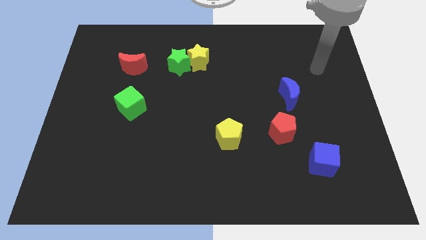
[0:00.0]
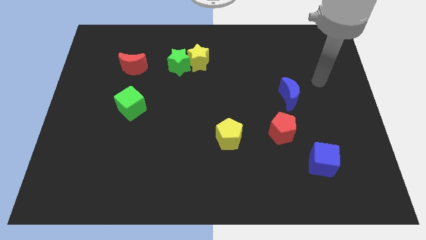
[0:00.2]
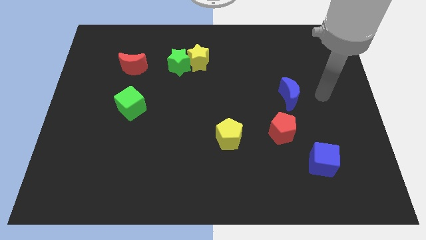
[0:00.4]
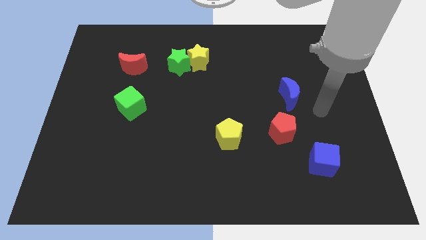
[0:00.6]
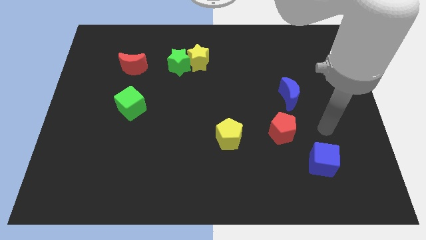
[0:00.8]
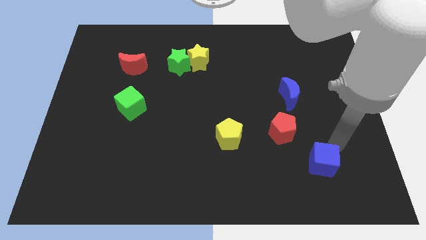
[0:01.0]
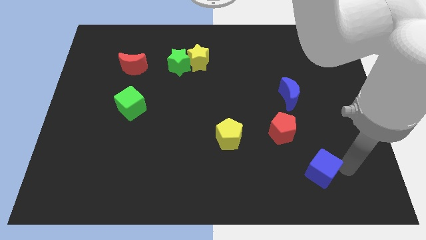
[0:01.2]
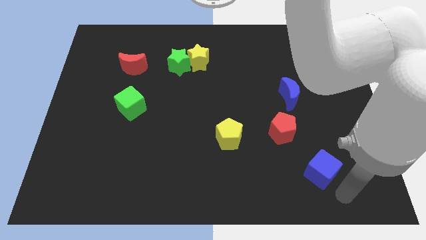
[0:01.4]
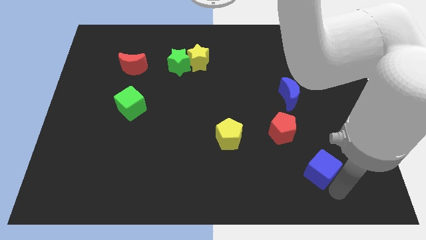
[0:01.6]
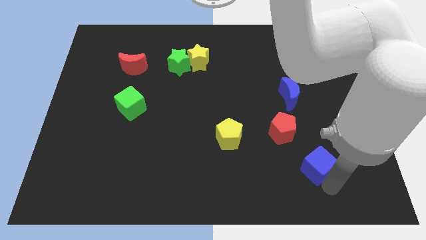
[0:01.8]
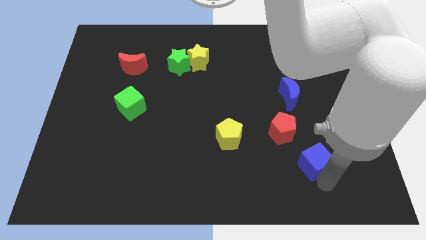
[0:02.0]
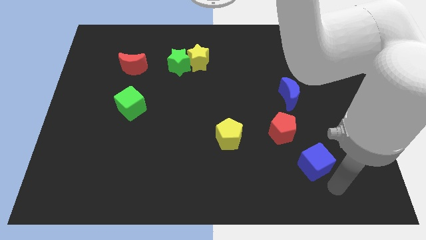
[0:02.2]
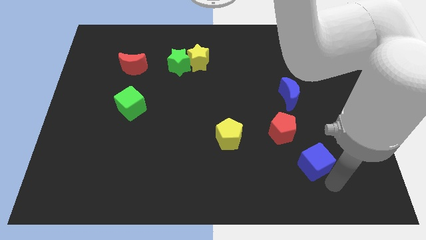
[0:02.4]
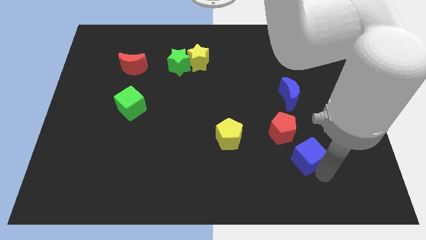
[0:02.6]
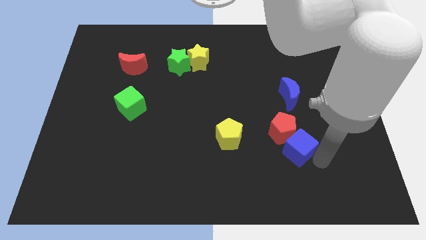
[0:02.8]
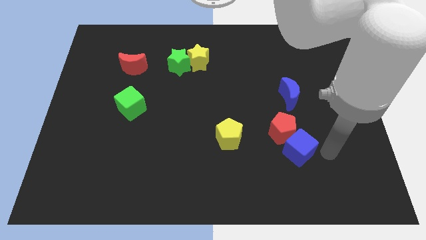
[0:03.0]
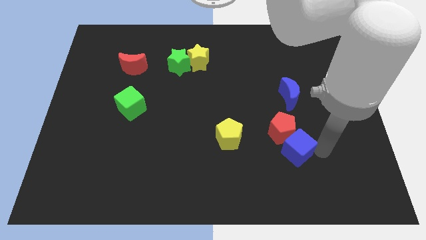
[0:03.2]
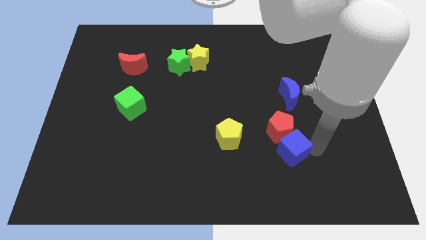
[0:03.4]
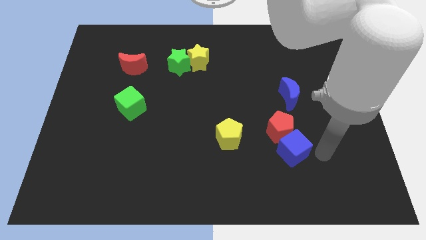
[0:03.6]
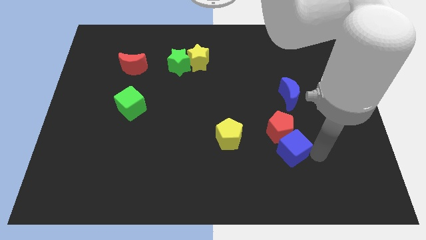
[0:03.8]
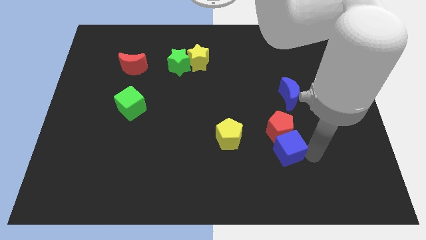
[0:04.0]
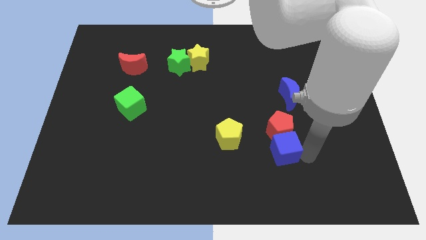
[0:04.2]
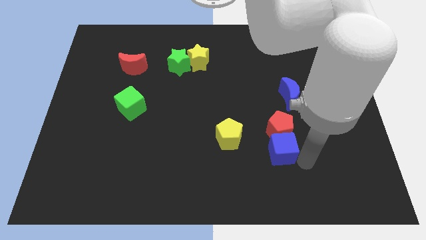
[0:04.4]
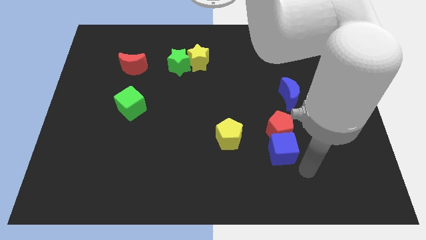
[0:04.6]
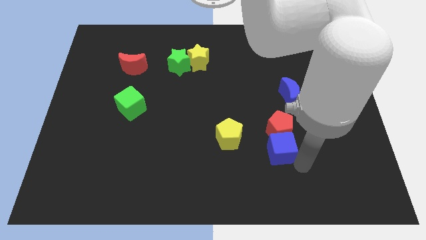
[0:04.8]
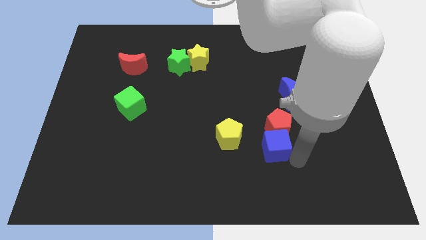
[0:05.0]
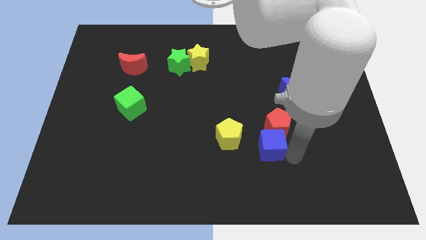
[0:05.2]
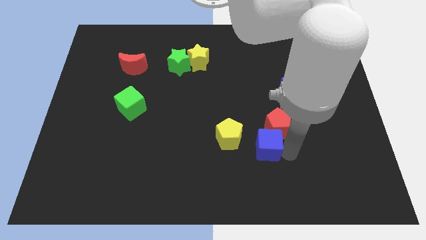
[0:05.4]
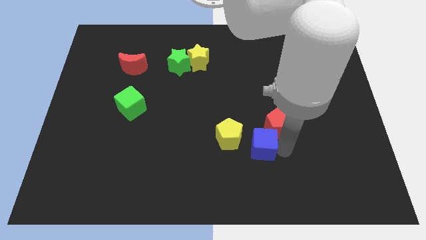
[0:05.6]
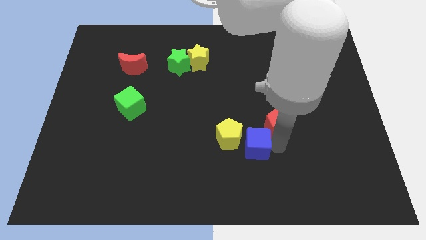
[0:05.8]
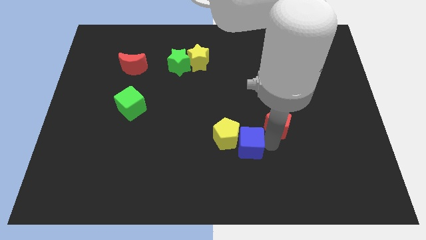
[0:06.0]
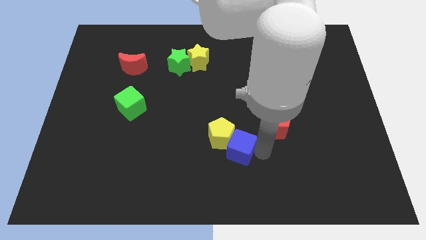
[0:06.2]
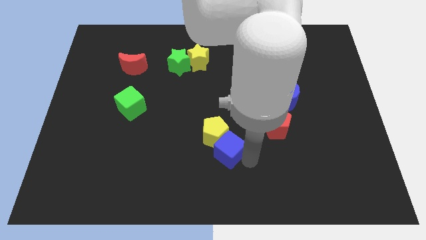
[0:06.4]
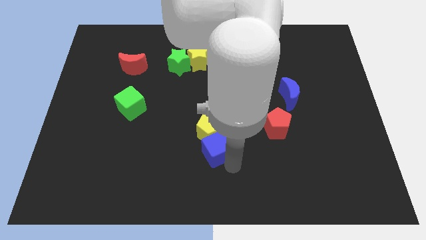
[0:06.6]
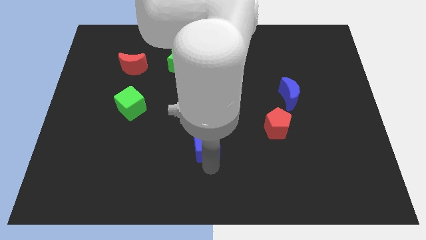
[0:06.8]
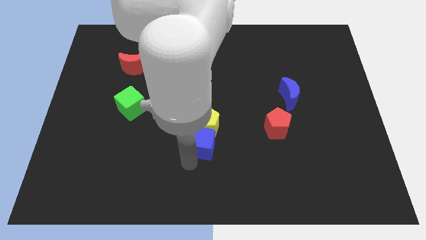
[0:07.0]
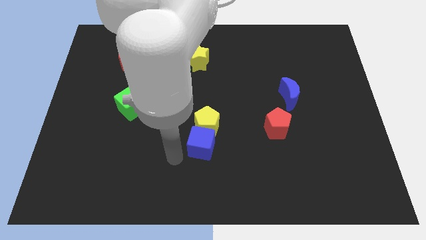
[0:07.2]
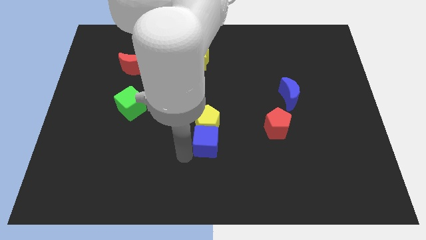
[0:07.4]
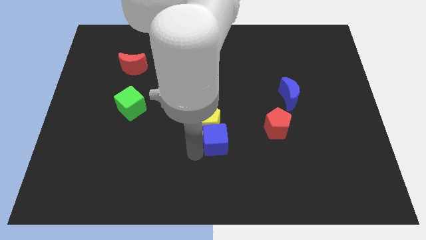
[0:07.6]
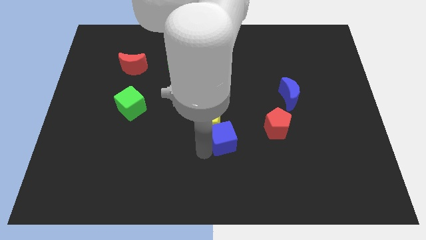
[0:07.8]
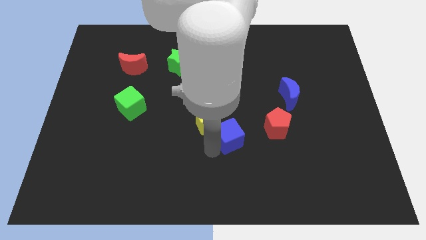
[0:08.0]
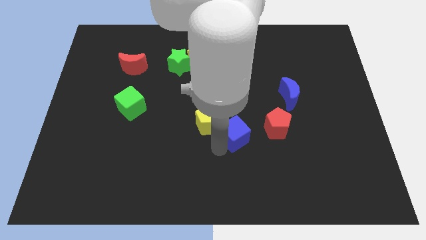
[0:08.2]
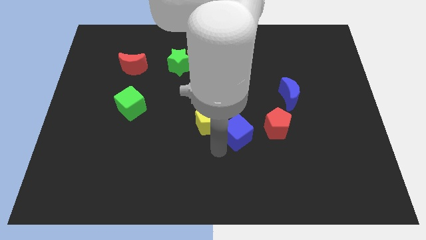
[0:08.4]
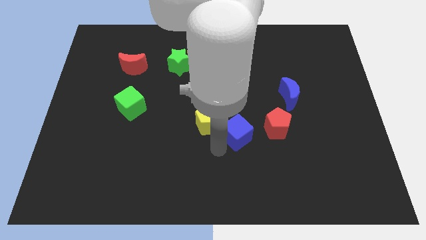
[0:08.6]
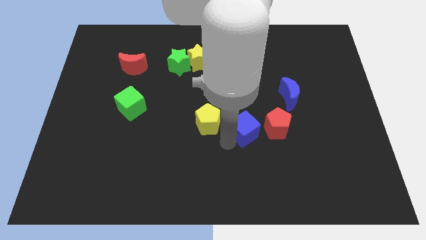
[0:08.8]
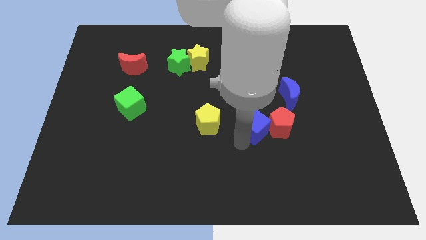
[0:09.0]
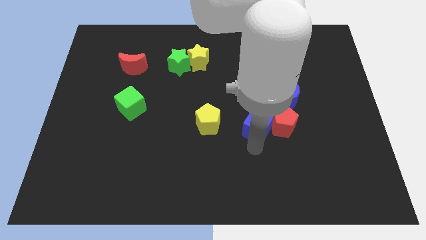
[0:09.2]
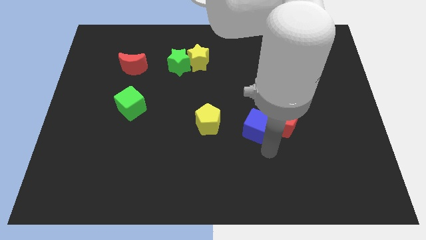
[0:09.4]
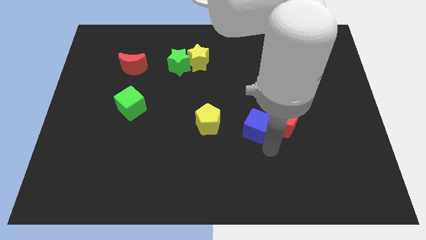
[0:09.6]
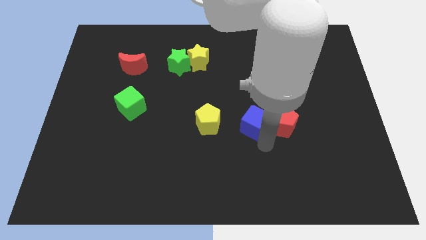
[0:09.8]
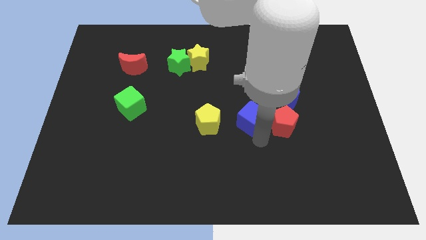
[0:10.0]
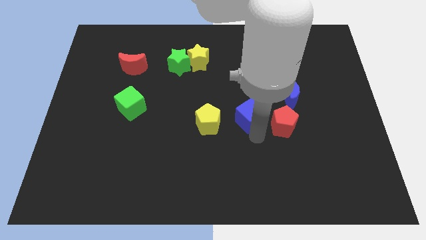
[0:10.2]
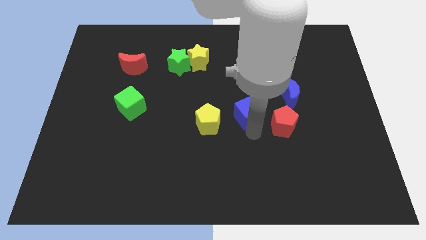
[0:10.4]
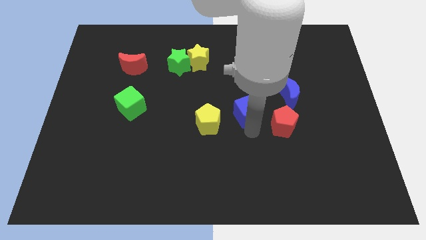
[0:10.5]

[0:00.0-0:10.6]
push the blue cube up and then to the left

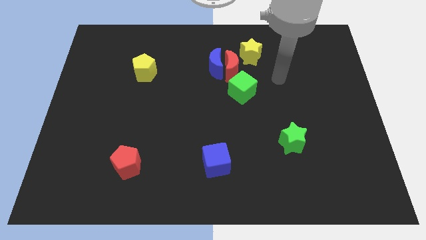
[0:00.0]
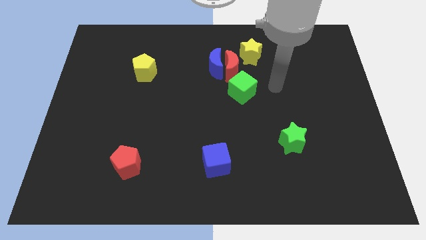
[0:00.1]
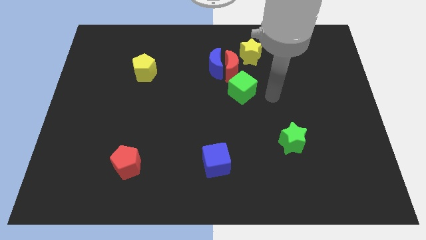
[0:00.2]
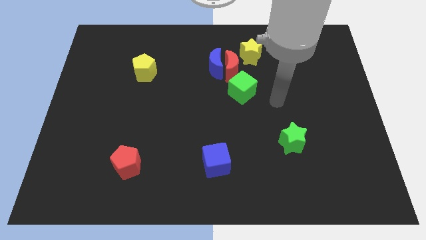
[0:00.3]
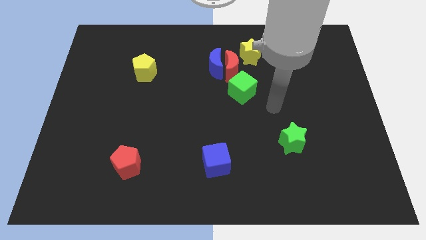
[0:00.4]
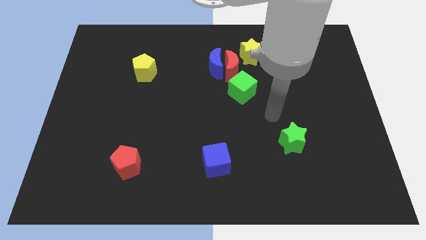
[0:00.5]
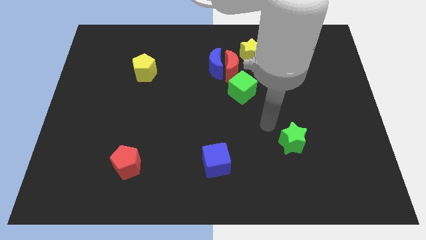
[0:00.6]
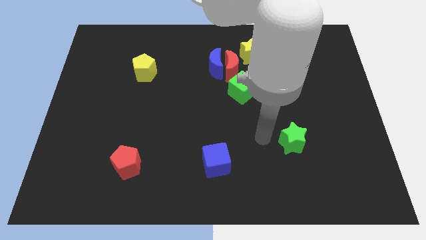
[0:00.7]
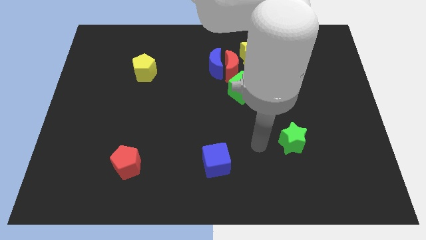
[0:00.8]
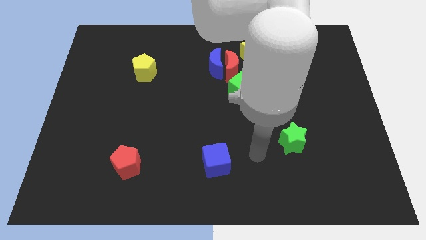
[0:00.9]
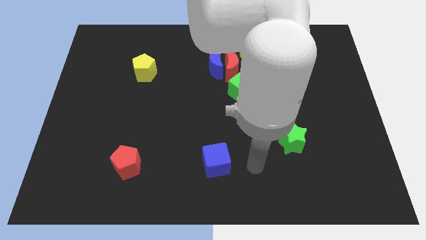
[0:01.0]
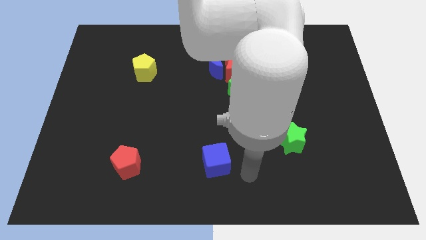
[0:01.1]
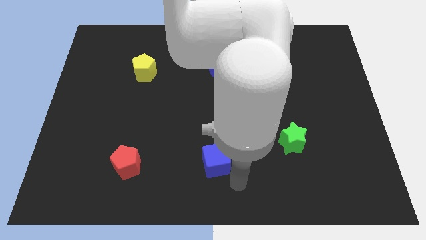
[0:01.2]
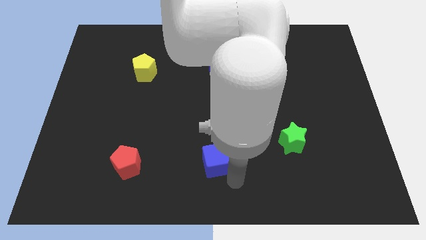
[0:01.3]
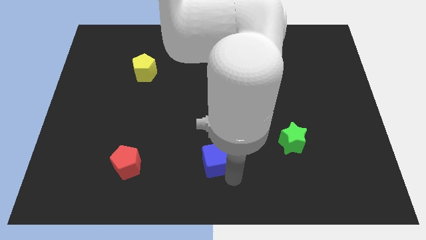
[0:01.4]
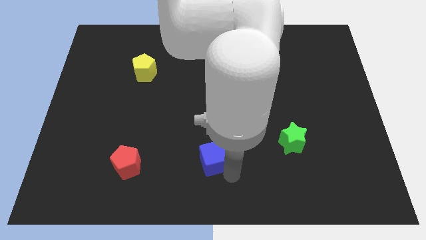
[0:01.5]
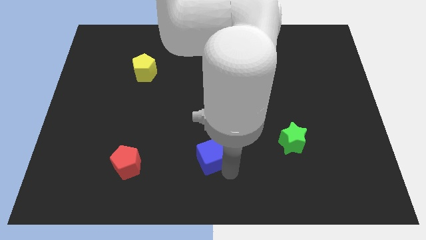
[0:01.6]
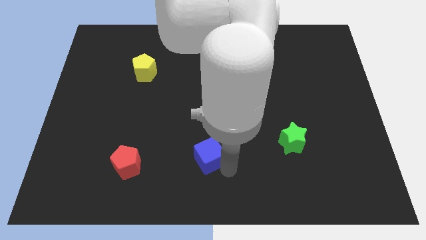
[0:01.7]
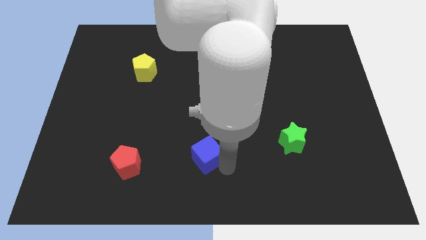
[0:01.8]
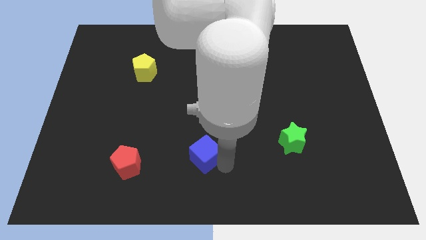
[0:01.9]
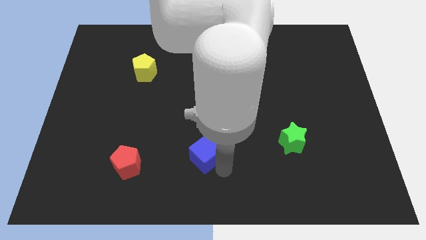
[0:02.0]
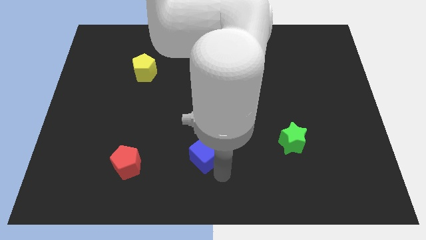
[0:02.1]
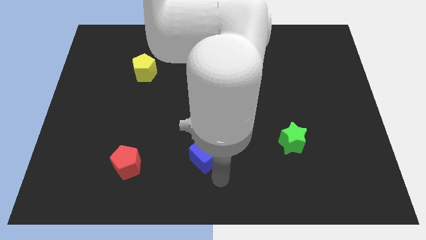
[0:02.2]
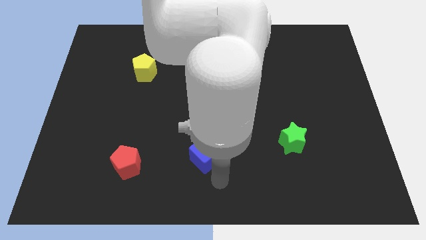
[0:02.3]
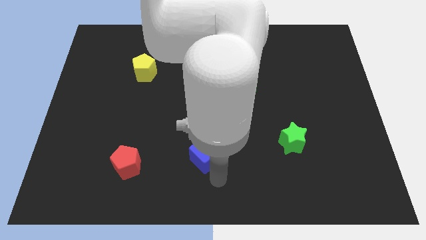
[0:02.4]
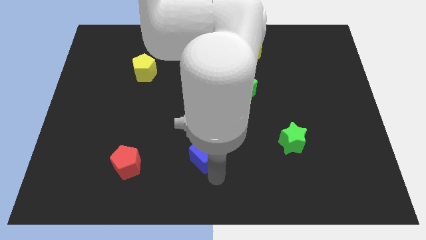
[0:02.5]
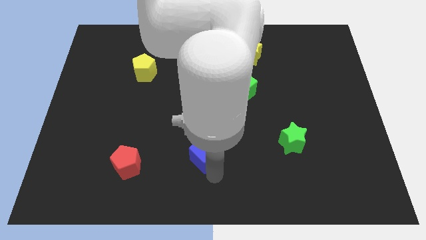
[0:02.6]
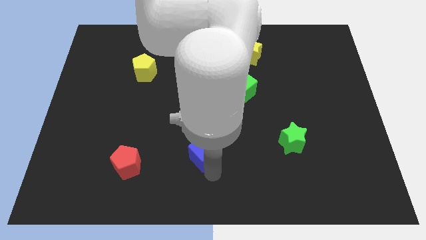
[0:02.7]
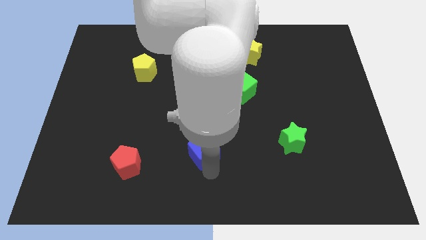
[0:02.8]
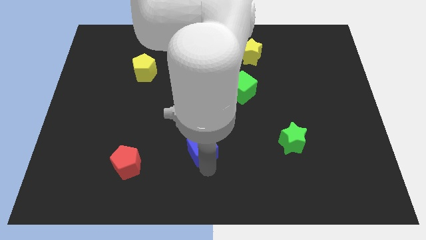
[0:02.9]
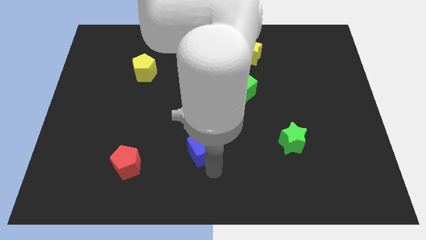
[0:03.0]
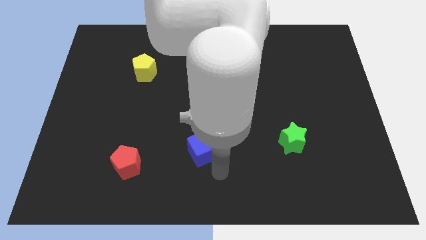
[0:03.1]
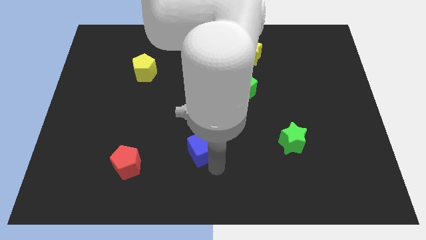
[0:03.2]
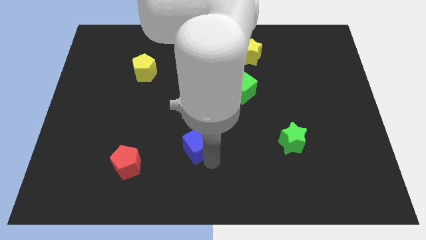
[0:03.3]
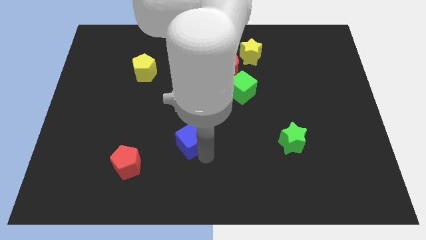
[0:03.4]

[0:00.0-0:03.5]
slide the blue cube a little up and to the left diagonally
